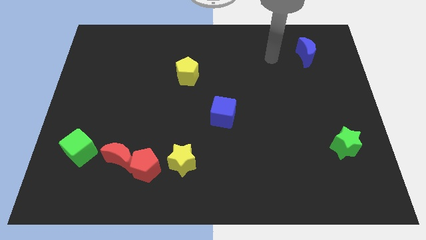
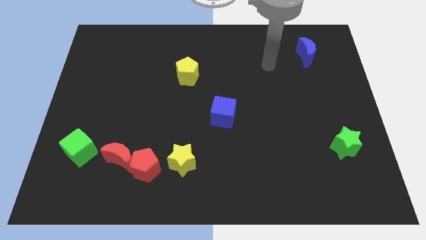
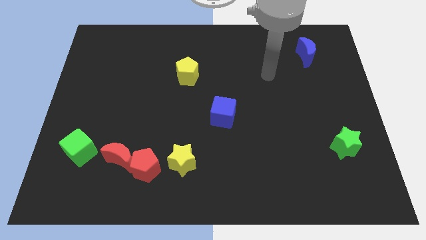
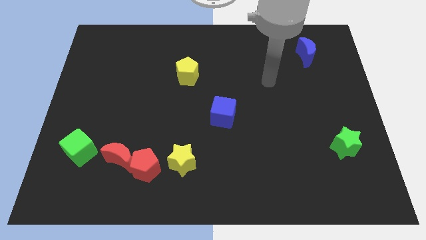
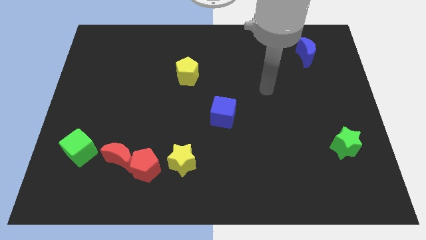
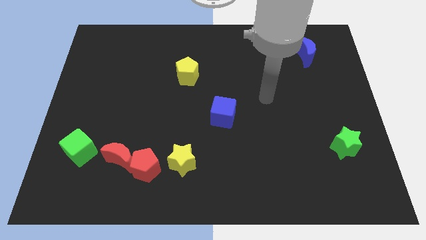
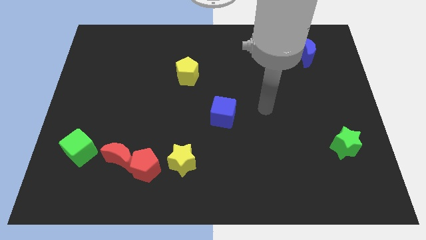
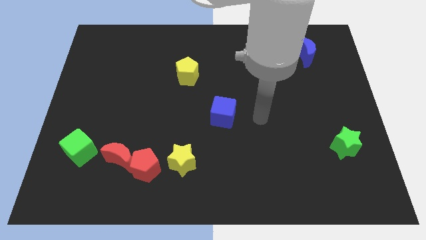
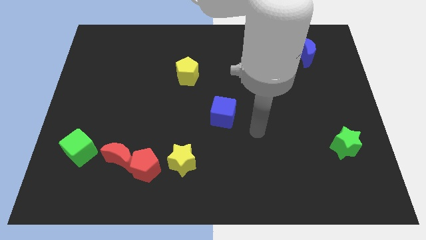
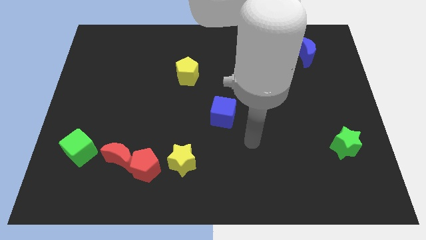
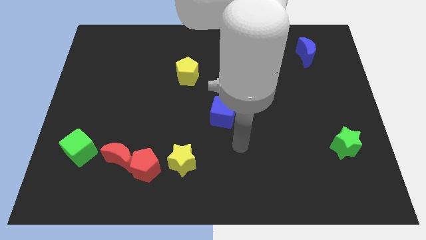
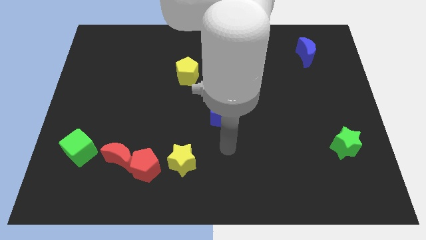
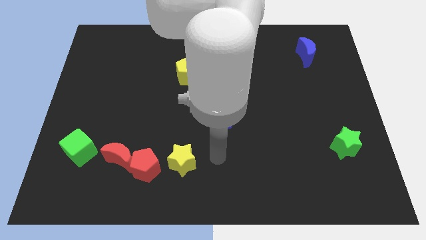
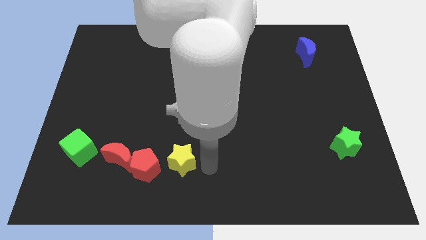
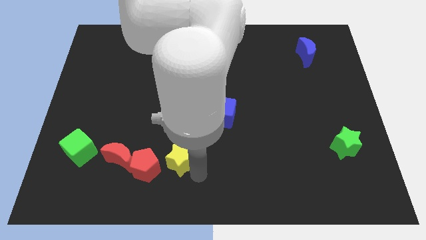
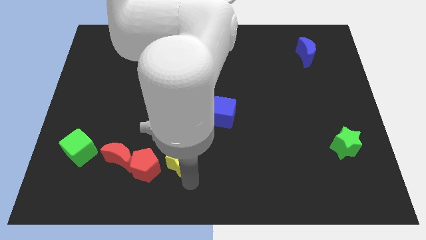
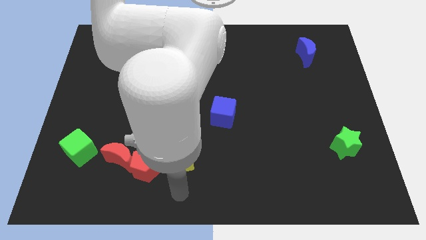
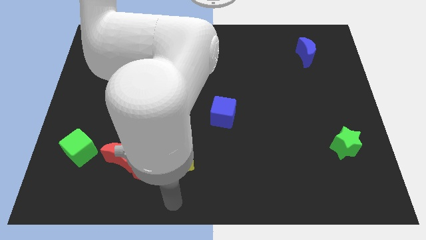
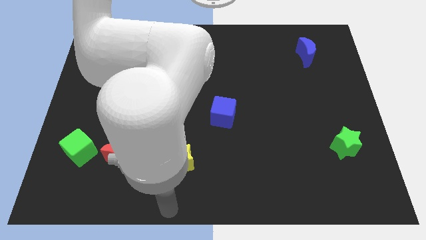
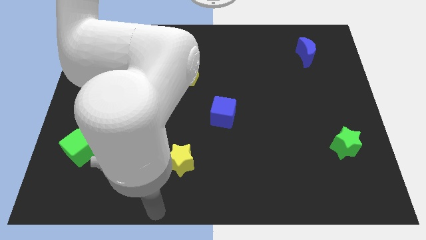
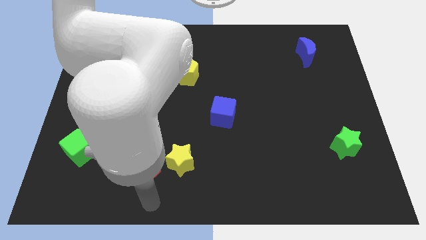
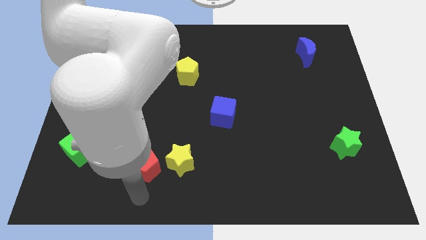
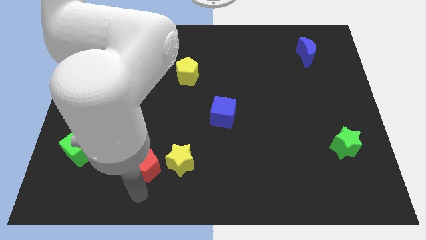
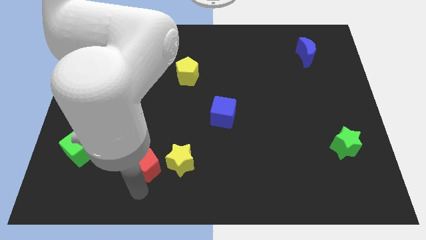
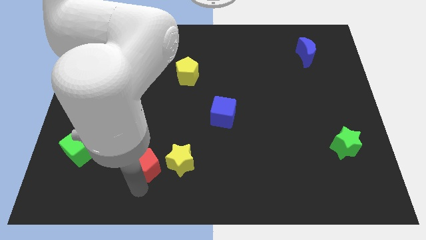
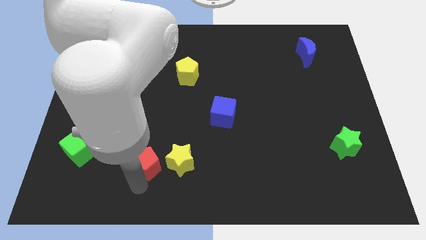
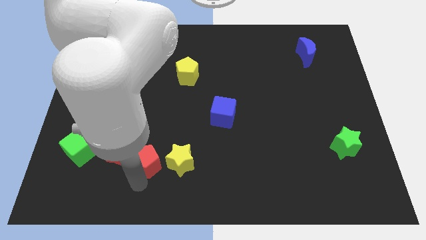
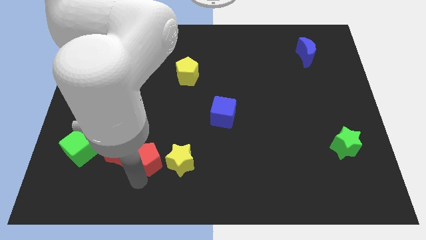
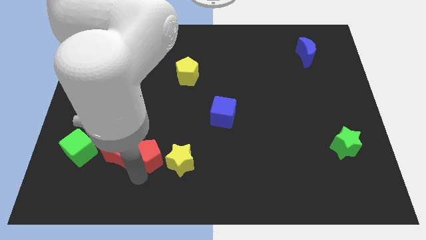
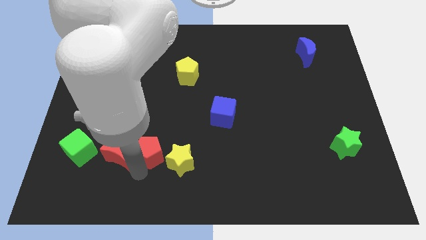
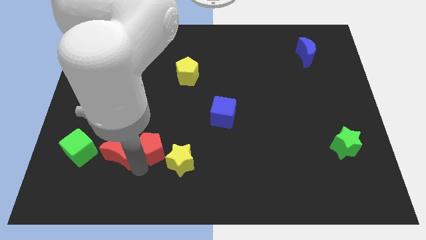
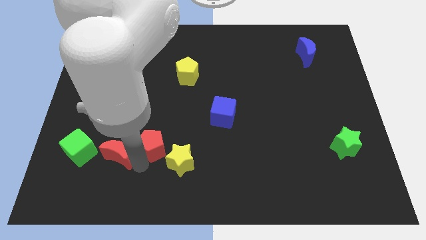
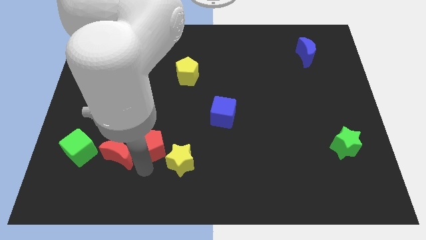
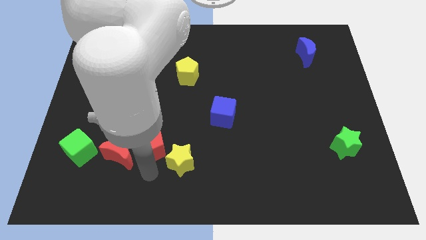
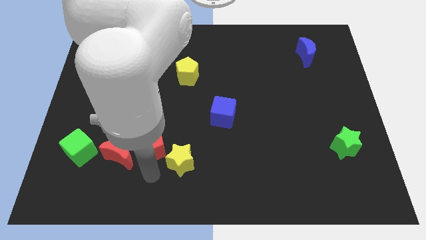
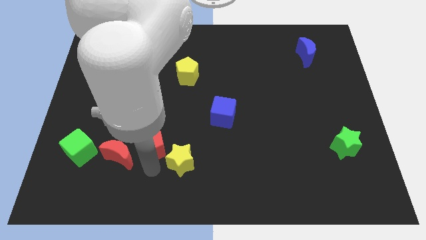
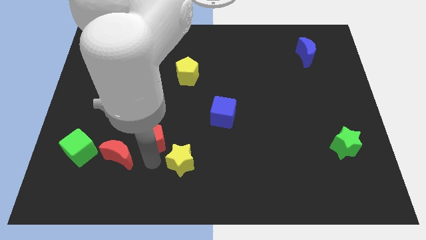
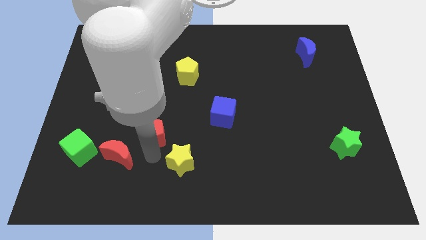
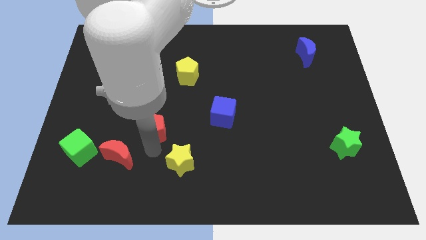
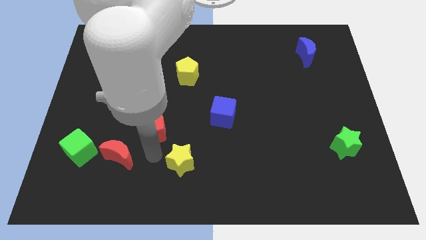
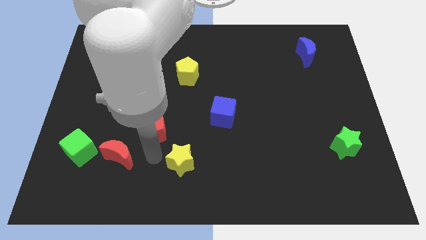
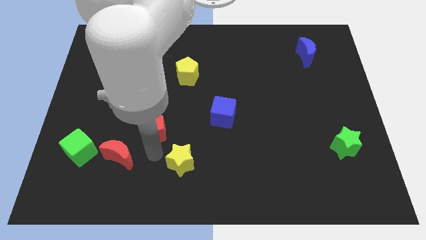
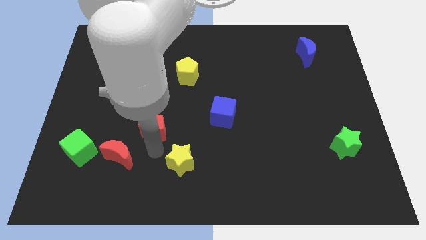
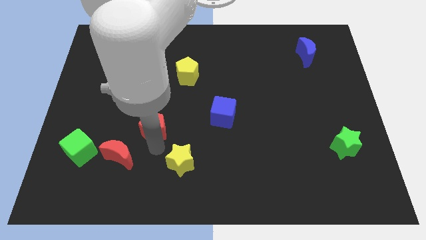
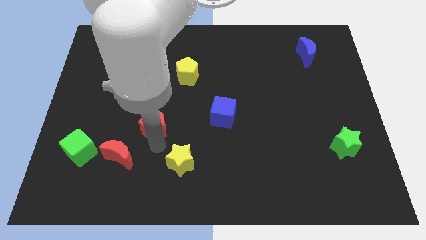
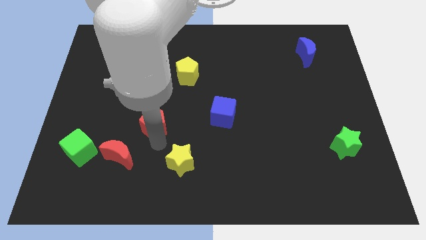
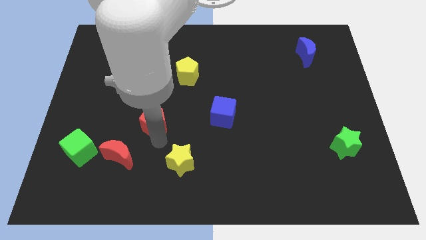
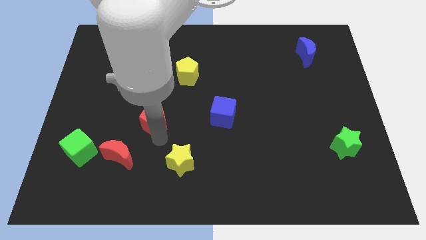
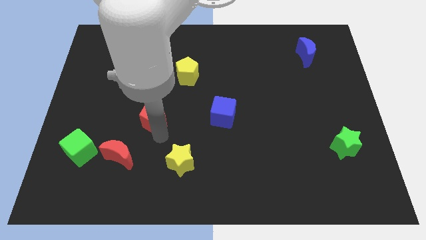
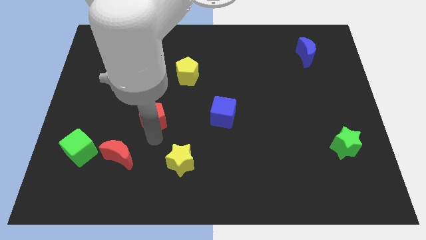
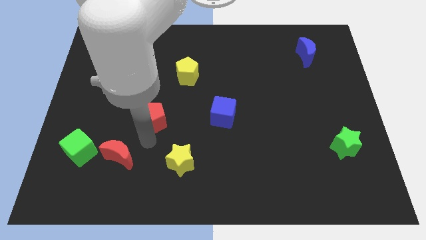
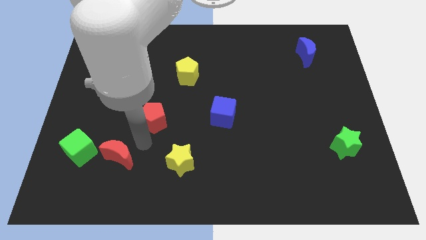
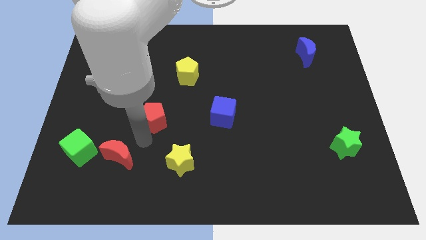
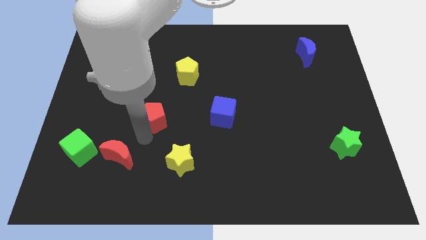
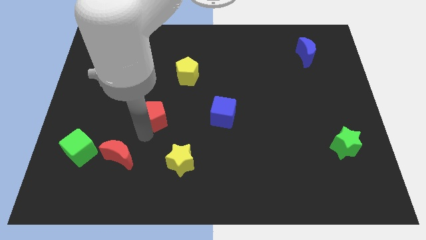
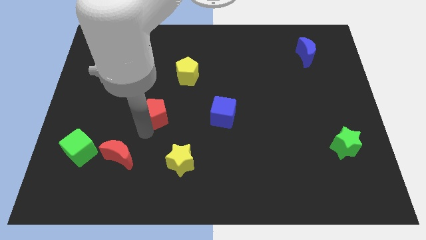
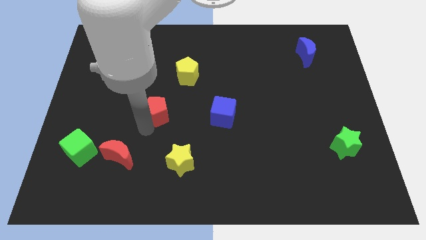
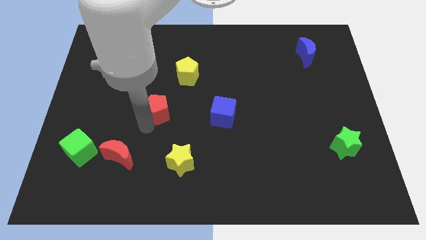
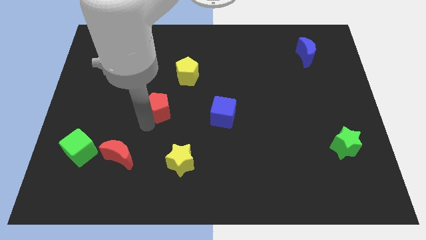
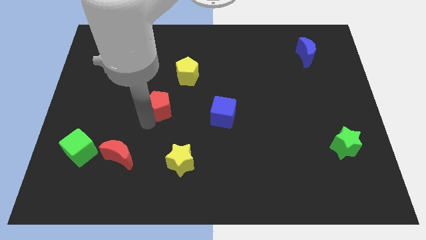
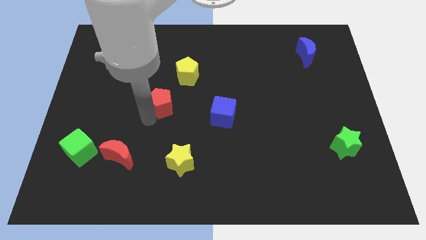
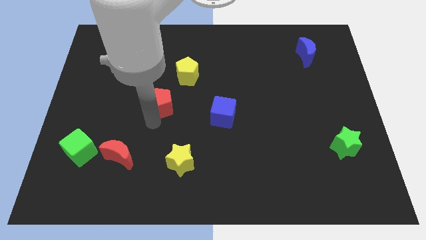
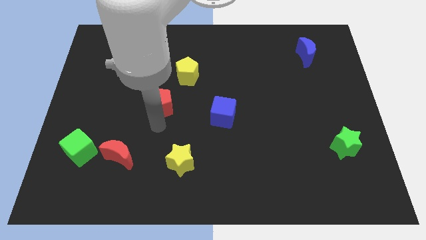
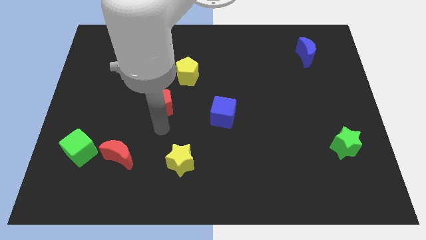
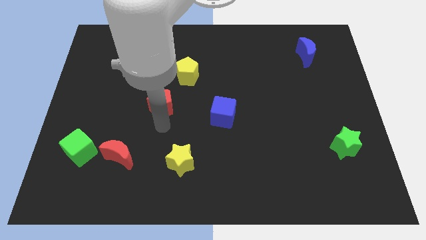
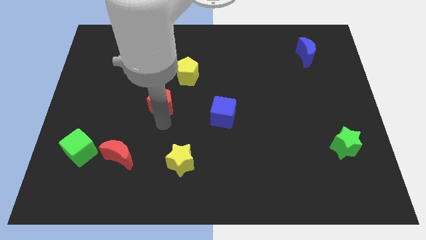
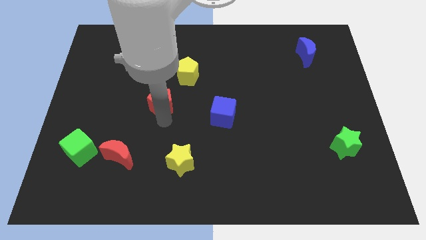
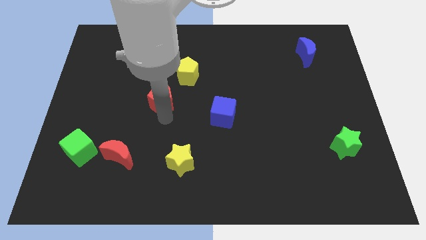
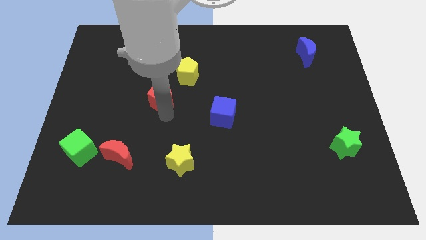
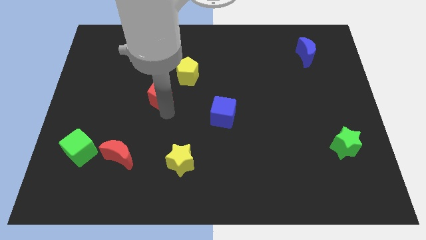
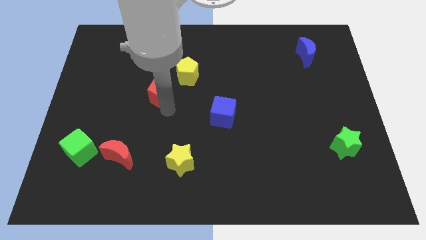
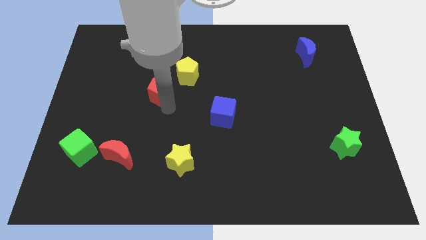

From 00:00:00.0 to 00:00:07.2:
move the red pentagon upwards

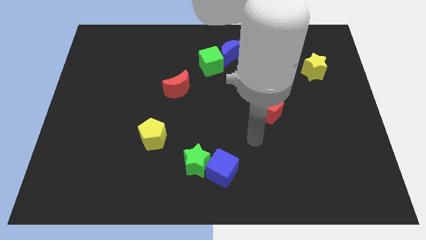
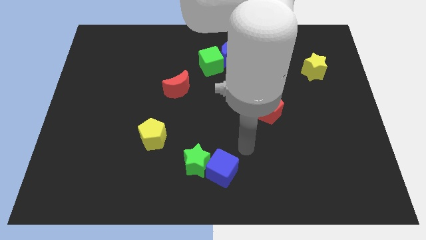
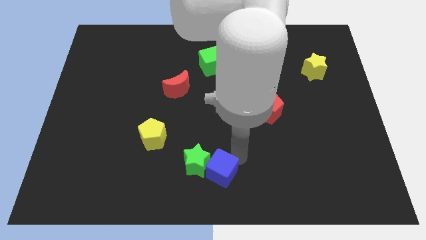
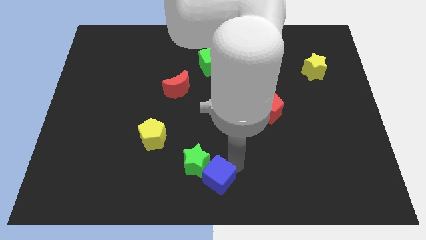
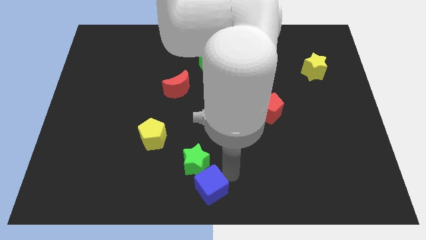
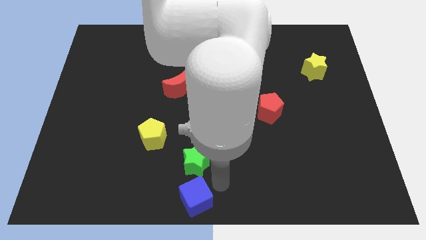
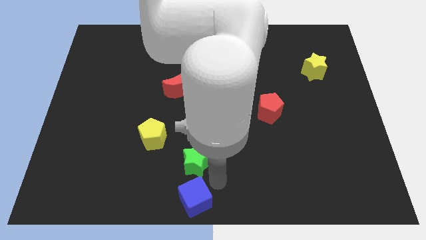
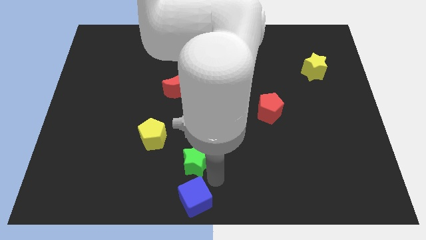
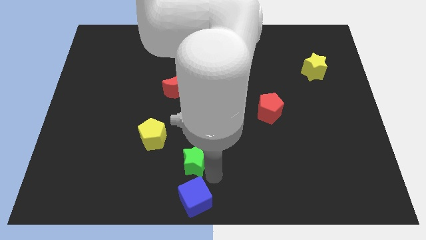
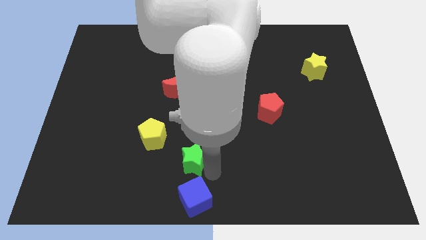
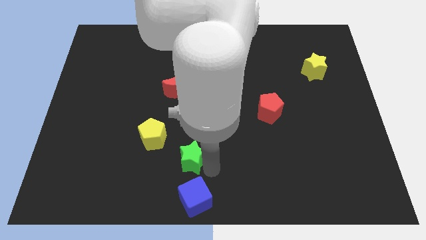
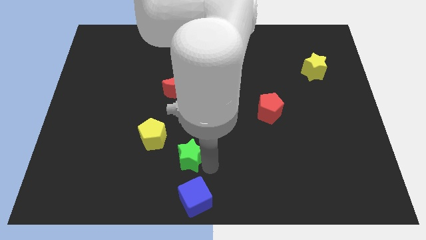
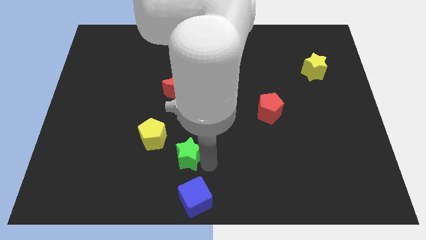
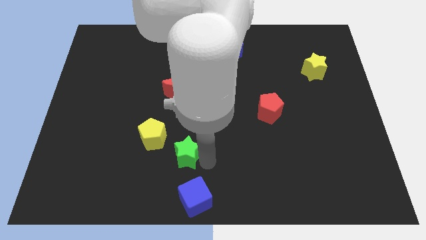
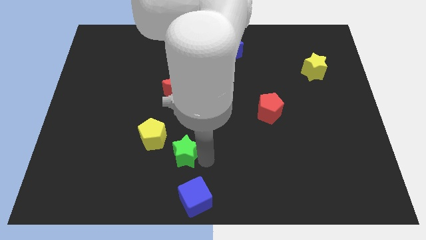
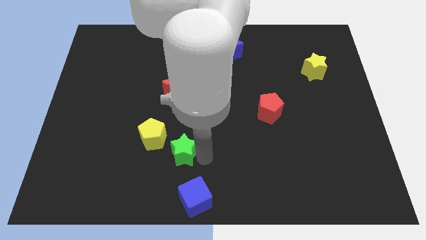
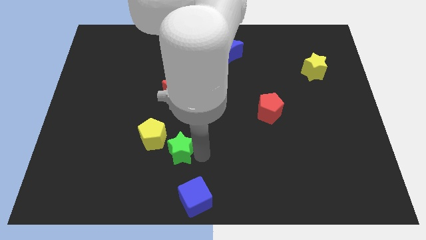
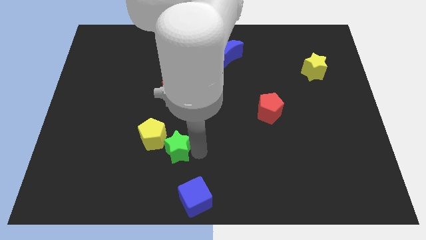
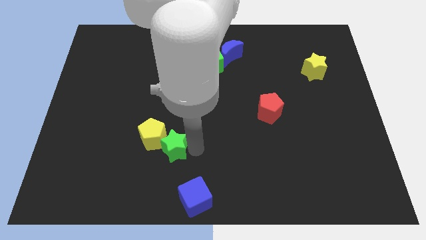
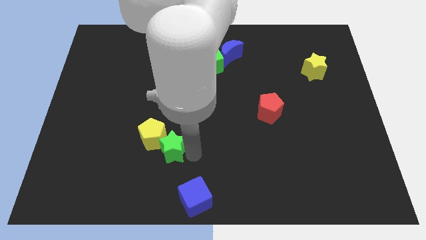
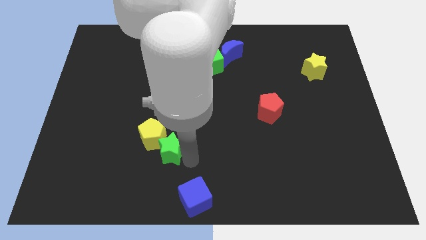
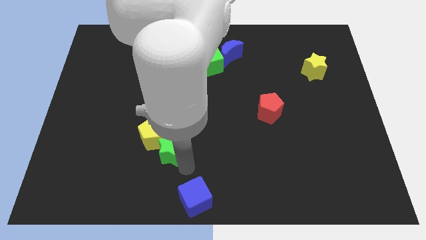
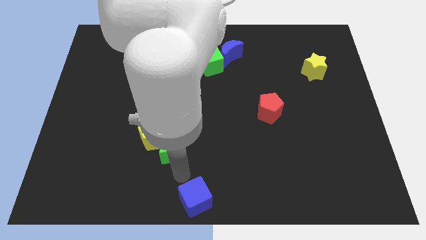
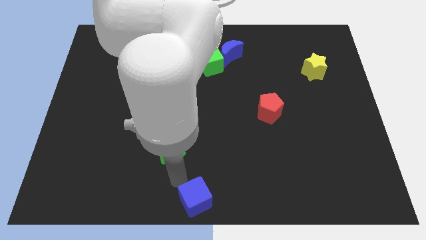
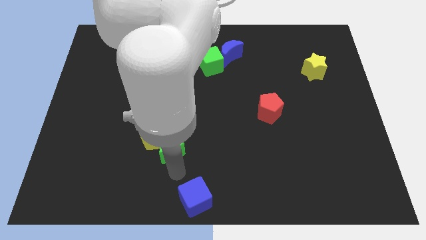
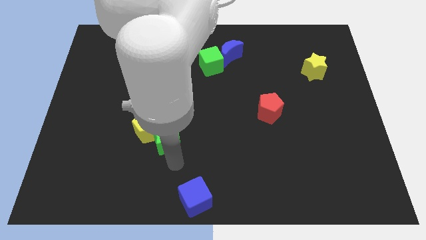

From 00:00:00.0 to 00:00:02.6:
slightly move the green star up and left diagonally
